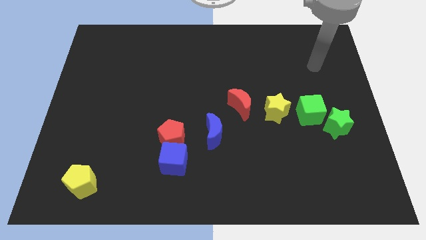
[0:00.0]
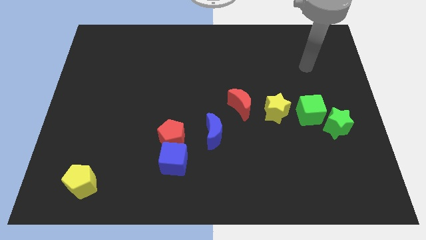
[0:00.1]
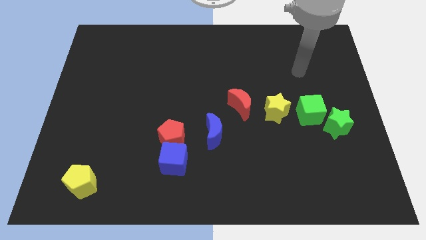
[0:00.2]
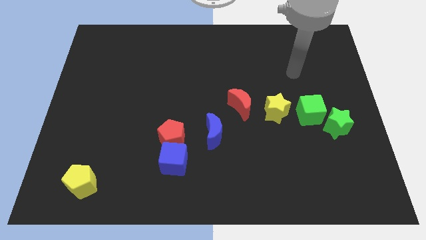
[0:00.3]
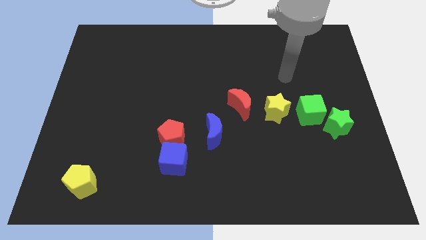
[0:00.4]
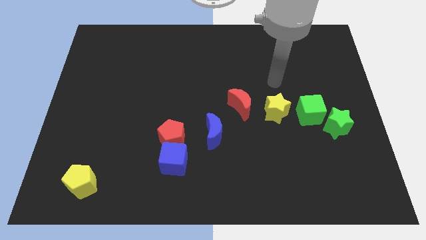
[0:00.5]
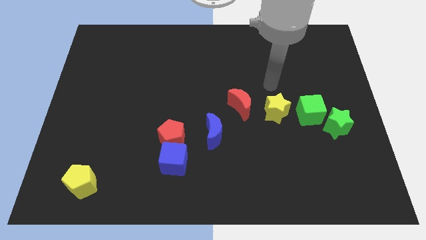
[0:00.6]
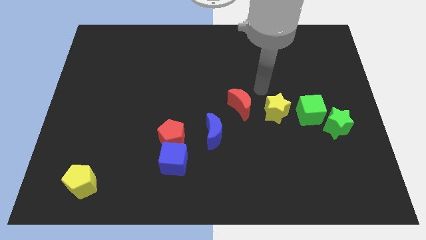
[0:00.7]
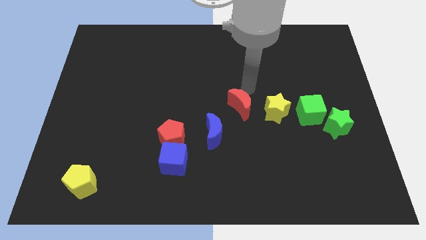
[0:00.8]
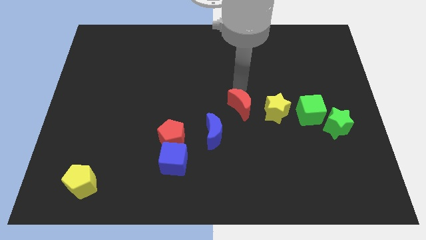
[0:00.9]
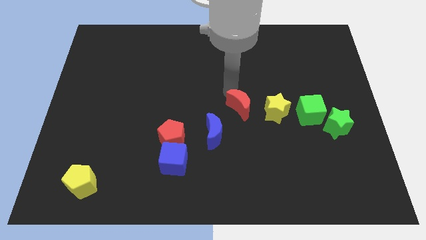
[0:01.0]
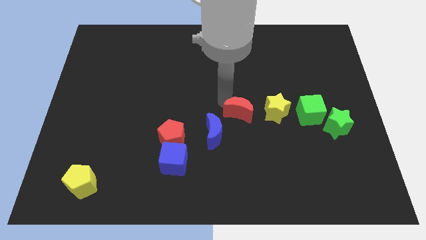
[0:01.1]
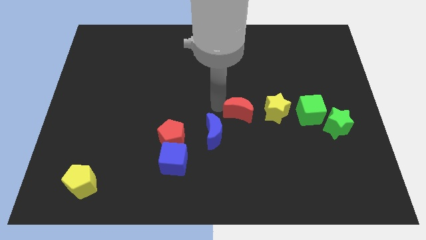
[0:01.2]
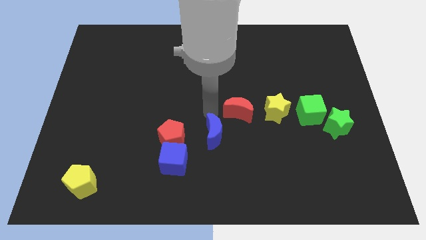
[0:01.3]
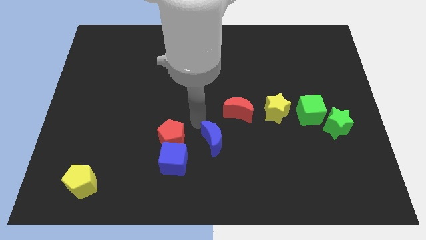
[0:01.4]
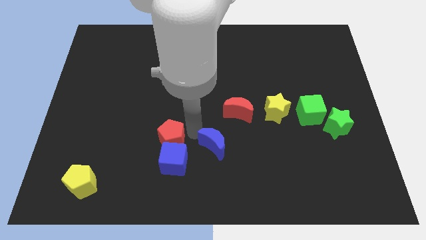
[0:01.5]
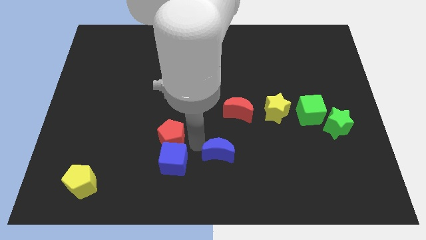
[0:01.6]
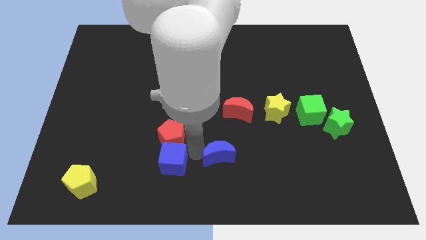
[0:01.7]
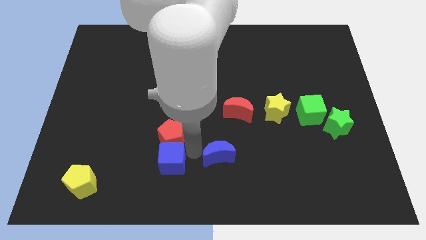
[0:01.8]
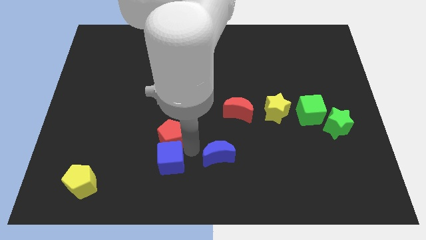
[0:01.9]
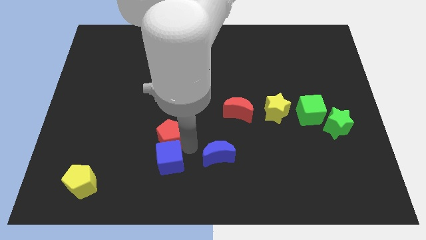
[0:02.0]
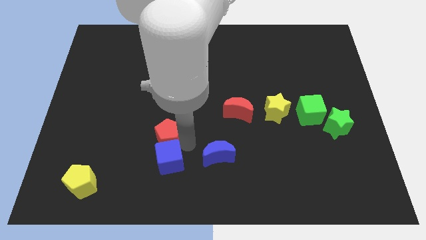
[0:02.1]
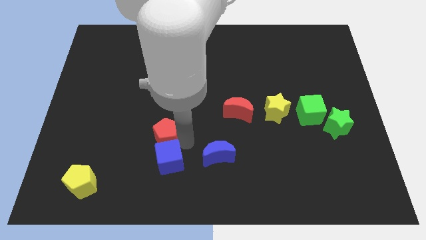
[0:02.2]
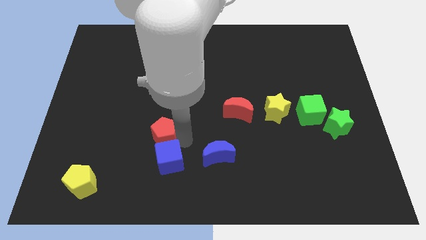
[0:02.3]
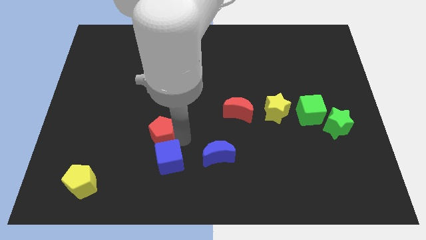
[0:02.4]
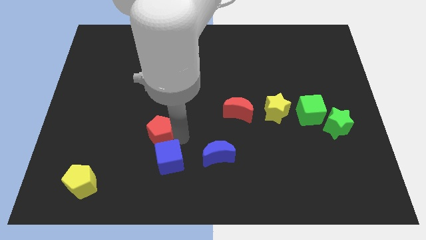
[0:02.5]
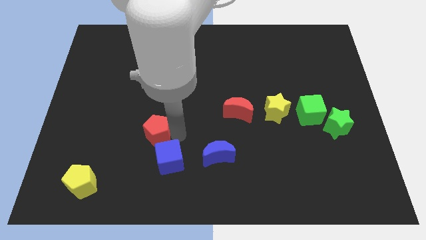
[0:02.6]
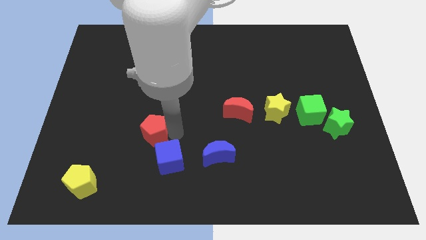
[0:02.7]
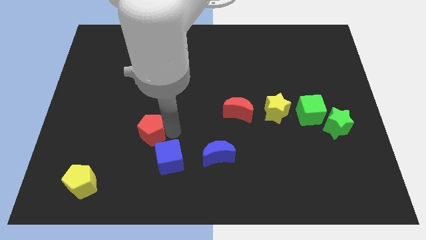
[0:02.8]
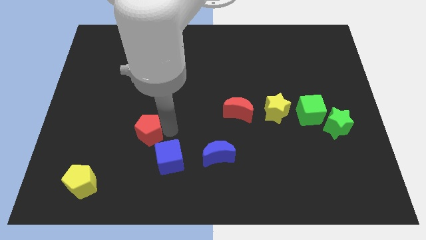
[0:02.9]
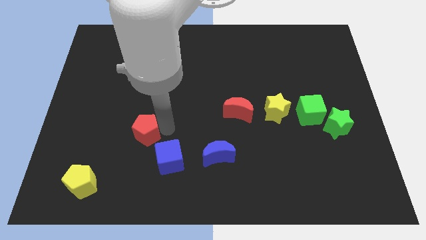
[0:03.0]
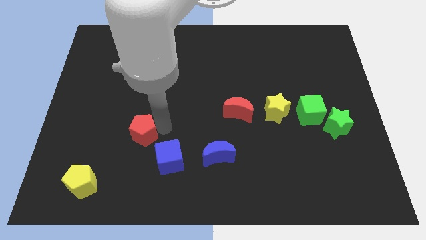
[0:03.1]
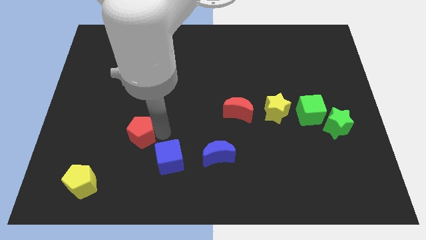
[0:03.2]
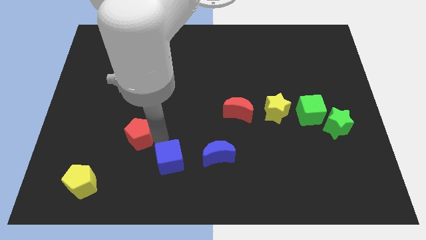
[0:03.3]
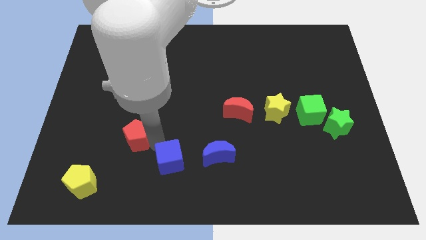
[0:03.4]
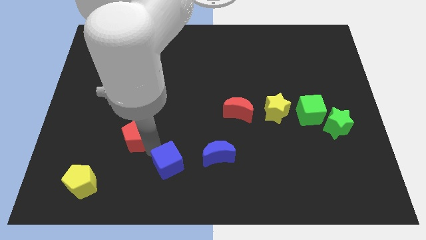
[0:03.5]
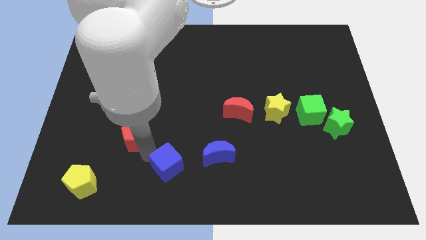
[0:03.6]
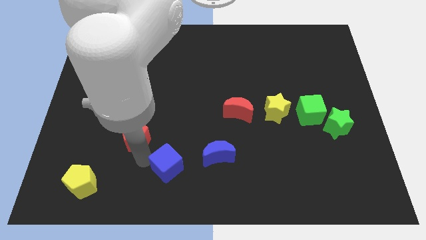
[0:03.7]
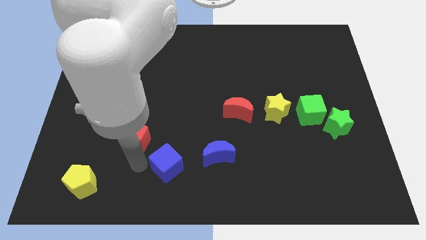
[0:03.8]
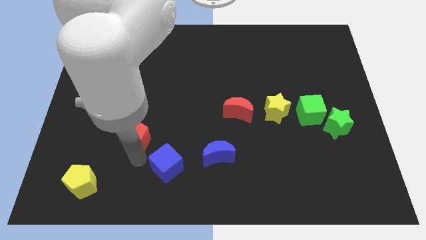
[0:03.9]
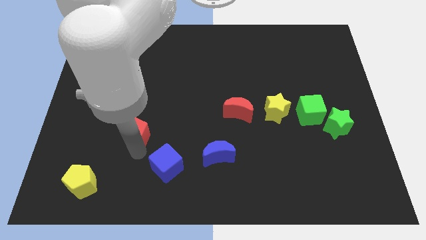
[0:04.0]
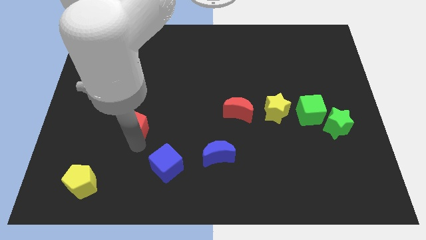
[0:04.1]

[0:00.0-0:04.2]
move the red pentagon somewhat up and to the left diagonally

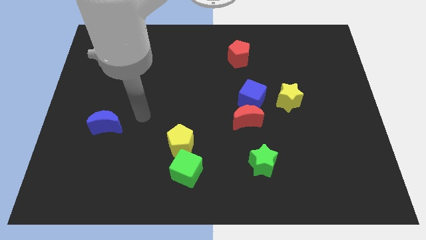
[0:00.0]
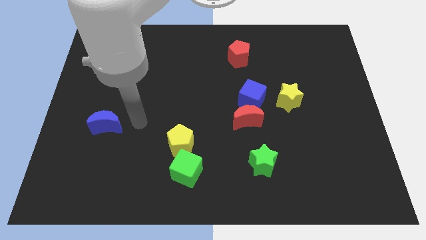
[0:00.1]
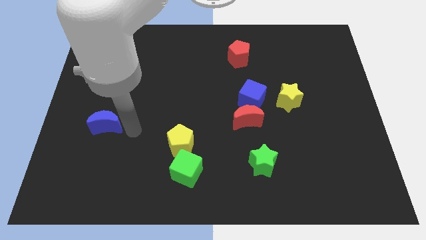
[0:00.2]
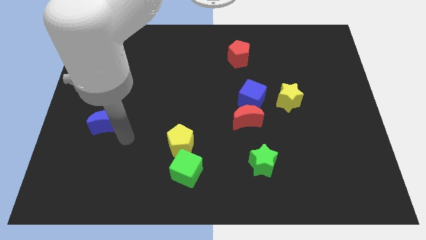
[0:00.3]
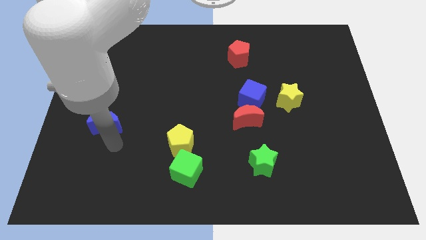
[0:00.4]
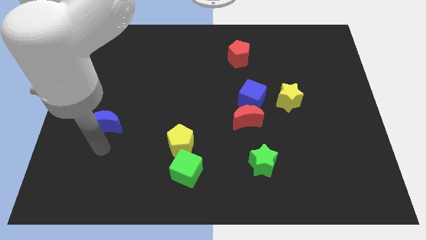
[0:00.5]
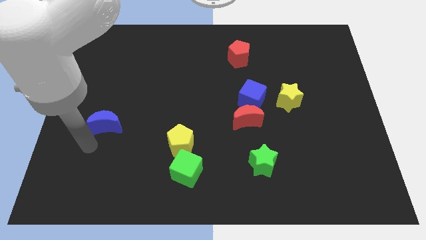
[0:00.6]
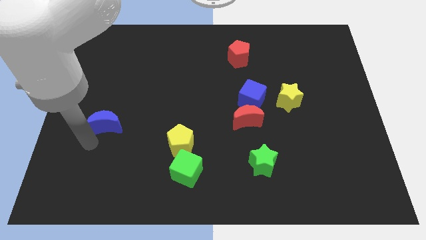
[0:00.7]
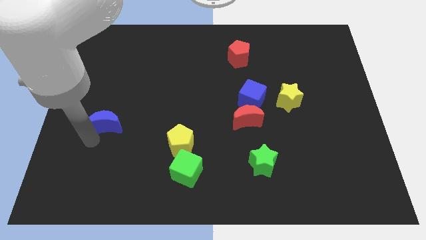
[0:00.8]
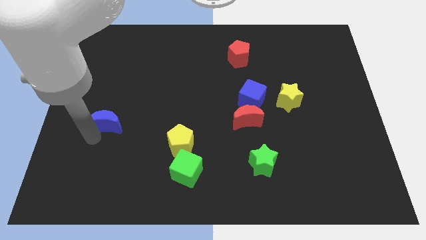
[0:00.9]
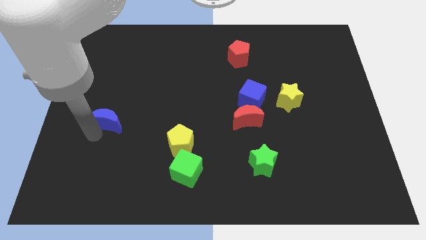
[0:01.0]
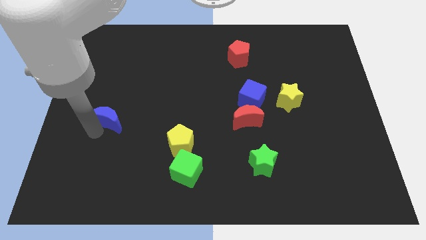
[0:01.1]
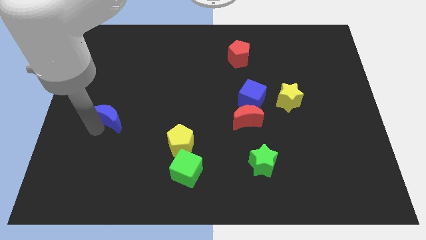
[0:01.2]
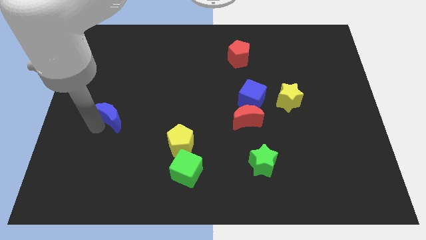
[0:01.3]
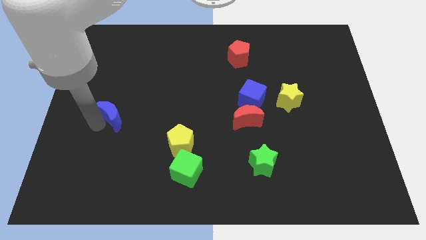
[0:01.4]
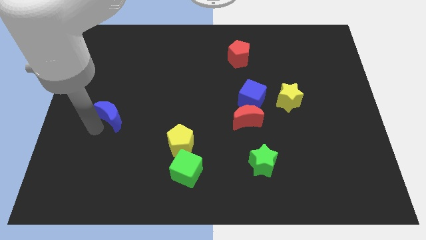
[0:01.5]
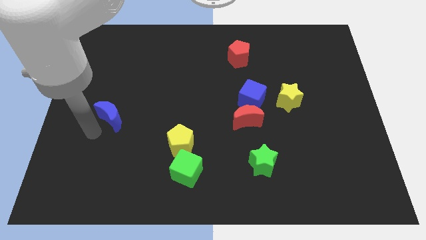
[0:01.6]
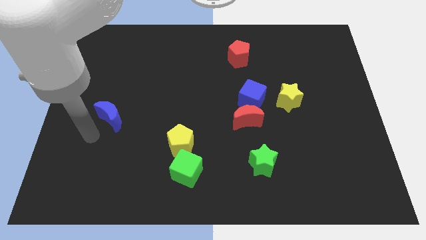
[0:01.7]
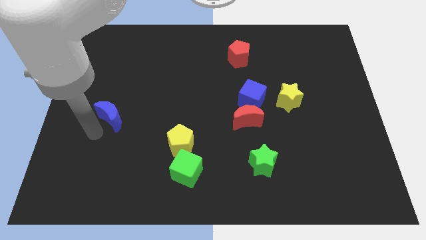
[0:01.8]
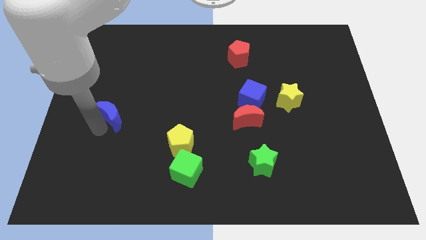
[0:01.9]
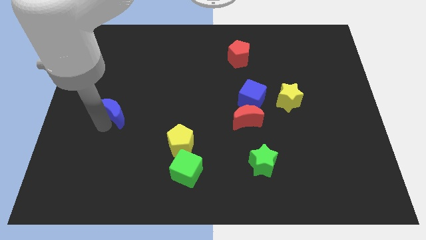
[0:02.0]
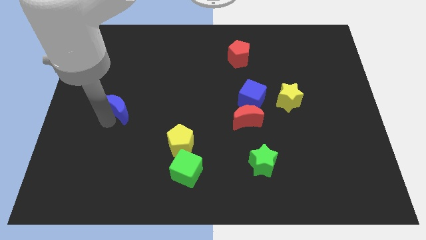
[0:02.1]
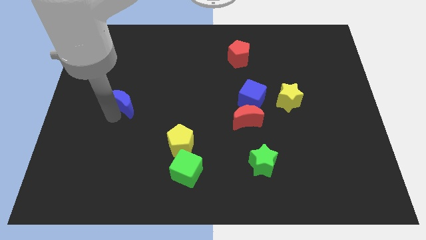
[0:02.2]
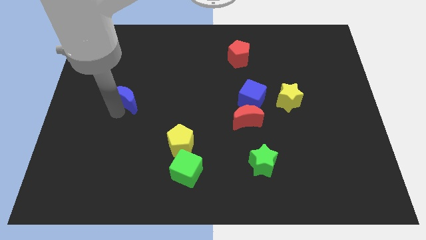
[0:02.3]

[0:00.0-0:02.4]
push the blue moon somewhat upwards and right diagonally

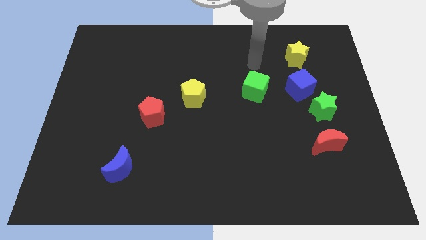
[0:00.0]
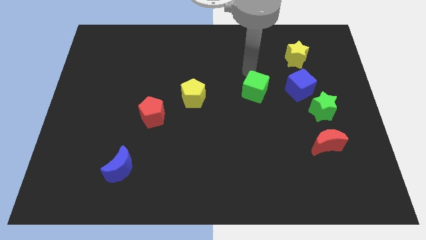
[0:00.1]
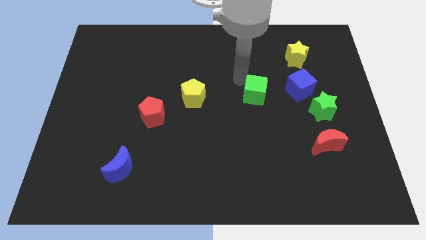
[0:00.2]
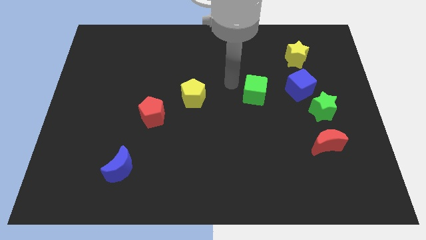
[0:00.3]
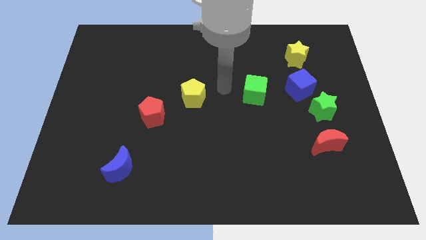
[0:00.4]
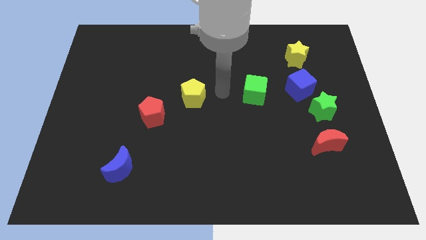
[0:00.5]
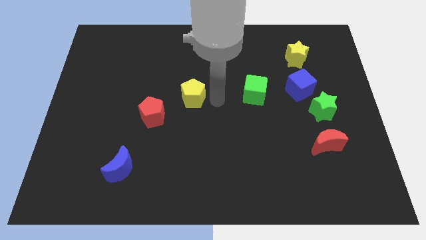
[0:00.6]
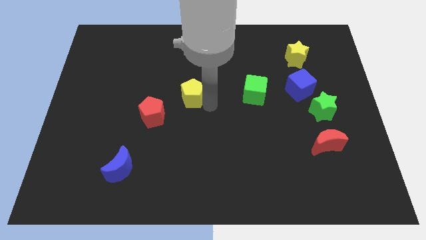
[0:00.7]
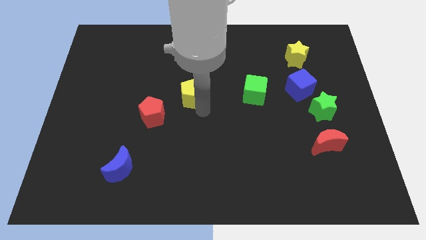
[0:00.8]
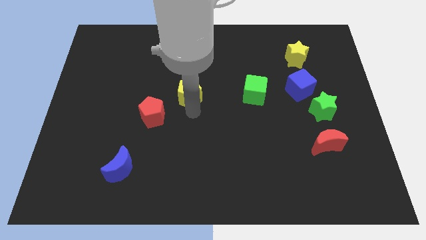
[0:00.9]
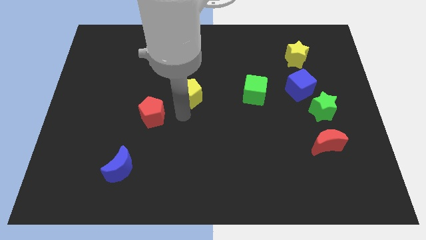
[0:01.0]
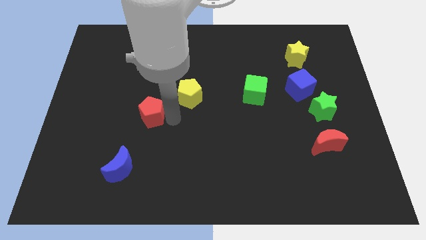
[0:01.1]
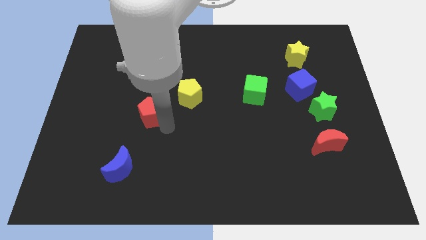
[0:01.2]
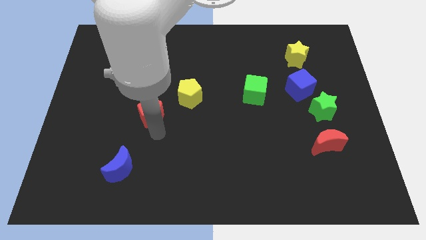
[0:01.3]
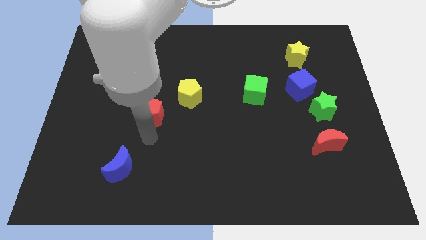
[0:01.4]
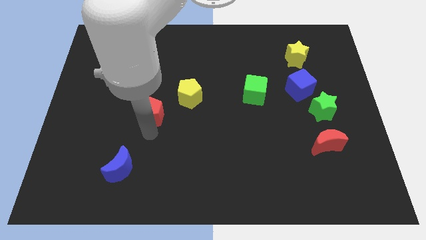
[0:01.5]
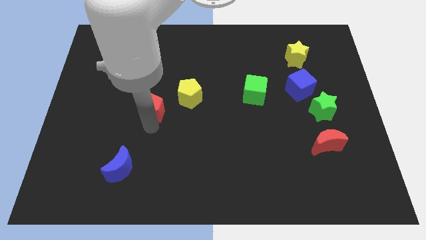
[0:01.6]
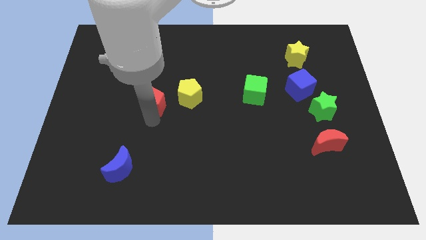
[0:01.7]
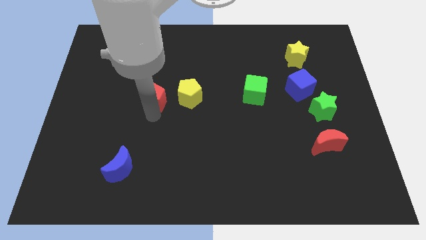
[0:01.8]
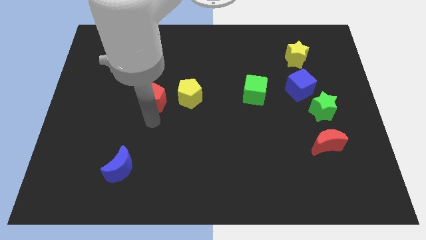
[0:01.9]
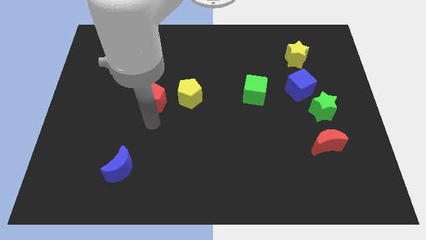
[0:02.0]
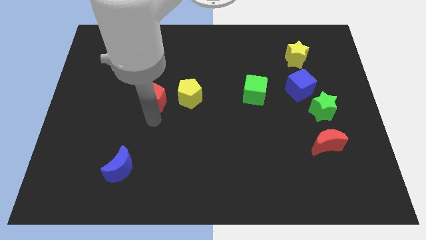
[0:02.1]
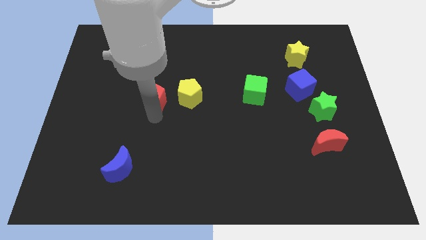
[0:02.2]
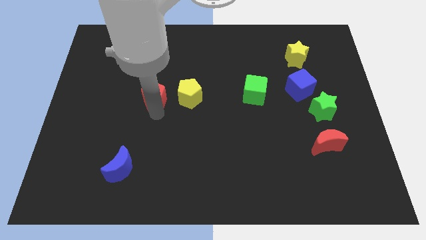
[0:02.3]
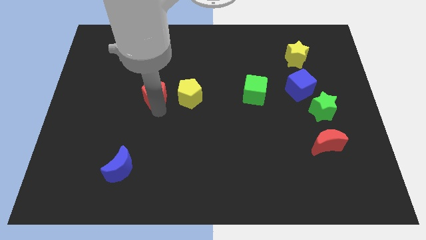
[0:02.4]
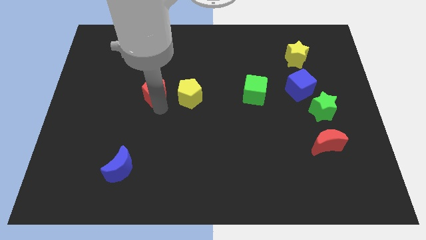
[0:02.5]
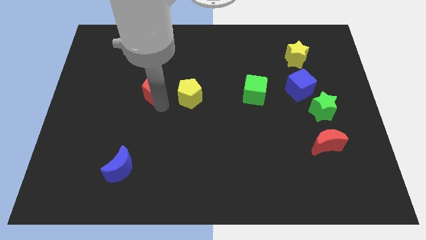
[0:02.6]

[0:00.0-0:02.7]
slightly push the red pentagon up
